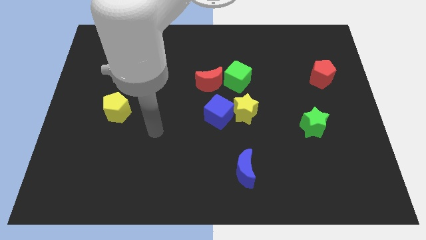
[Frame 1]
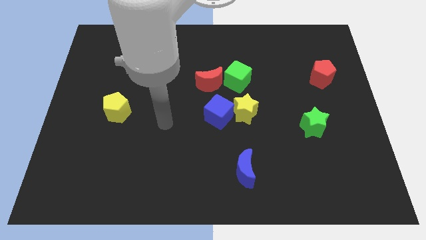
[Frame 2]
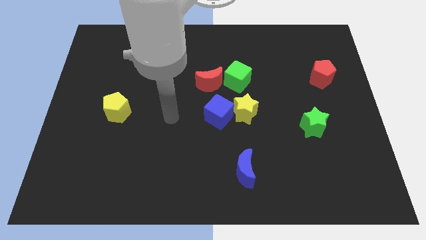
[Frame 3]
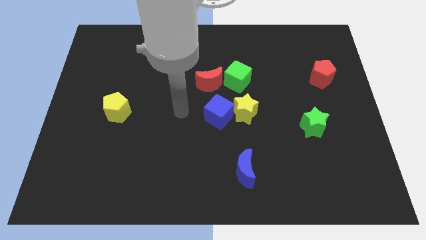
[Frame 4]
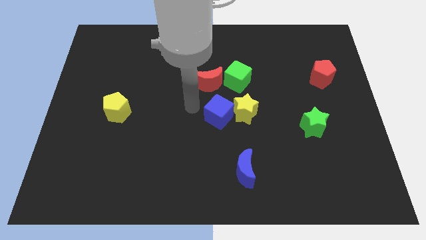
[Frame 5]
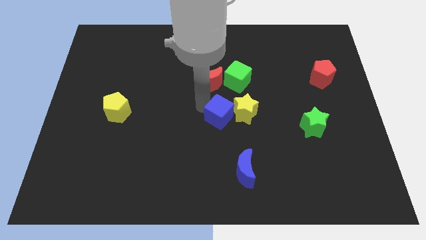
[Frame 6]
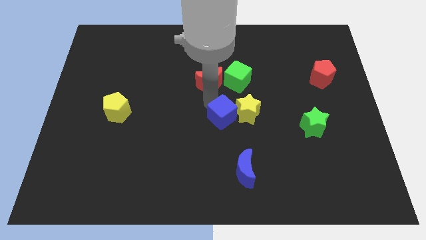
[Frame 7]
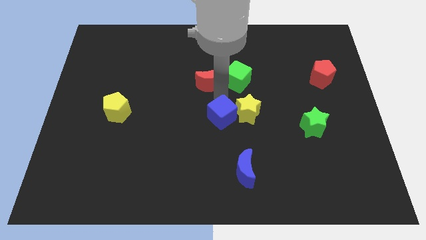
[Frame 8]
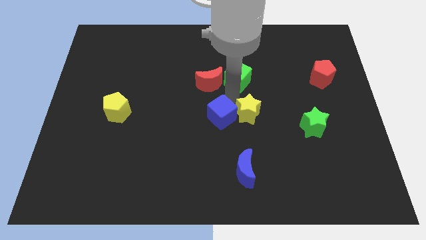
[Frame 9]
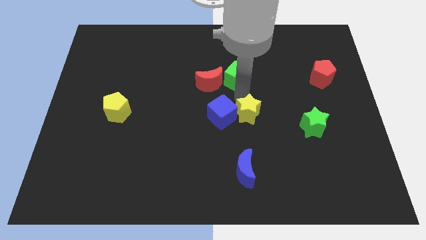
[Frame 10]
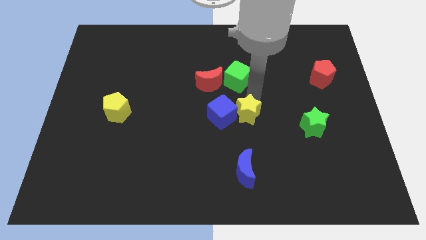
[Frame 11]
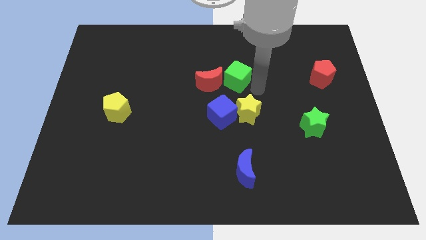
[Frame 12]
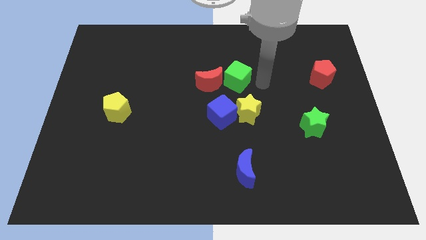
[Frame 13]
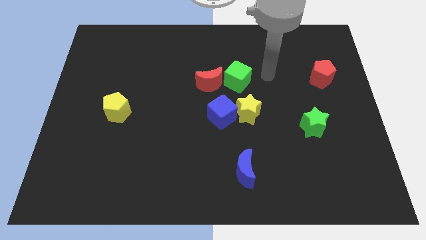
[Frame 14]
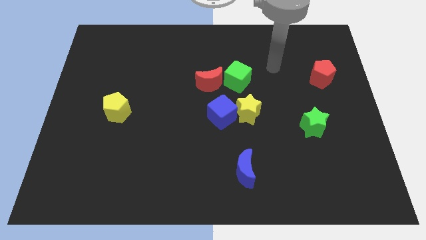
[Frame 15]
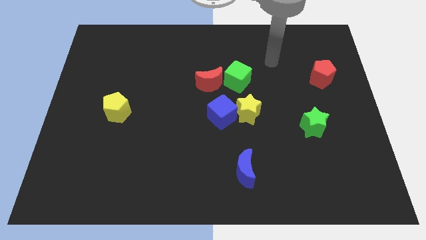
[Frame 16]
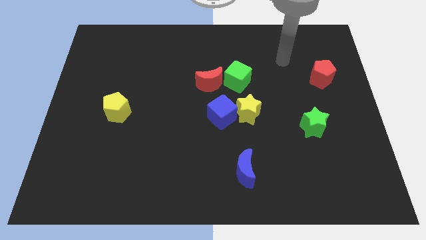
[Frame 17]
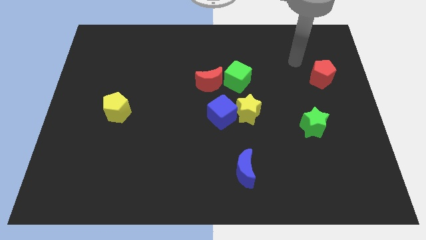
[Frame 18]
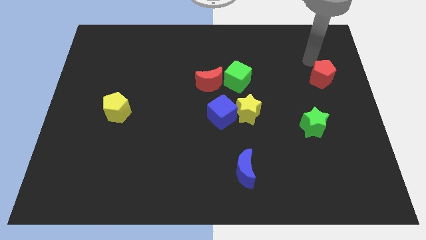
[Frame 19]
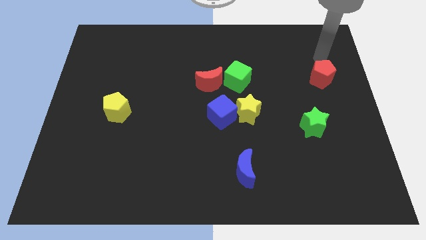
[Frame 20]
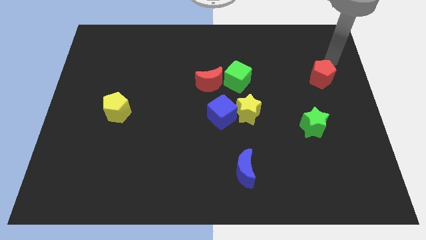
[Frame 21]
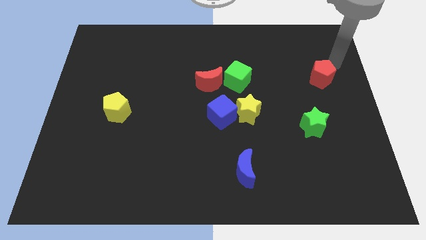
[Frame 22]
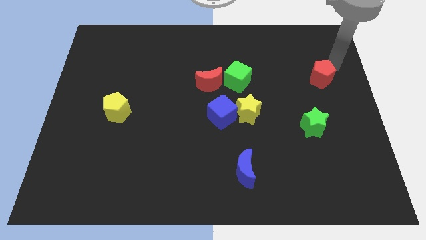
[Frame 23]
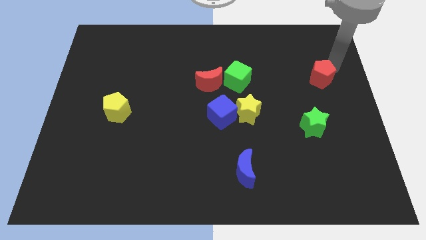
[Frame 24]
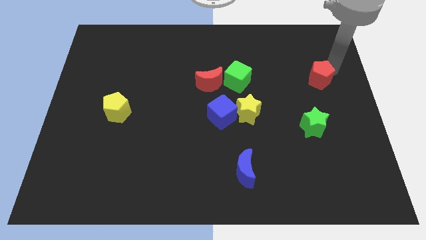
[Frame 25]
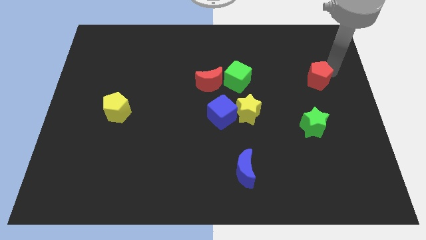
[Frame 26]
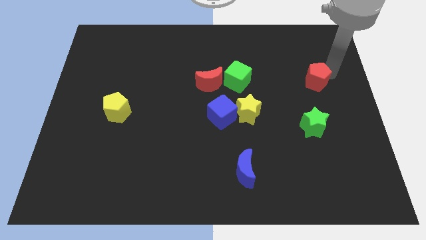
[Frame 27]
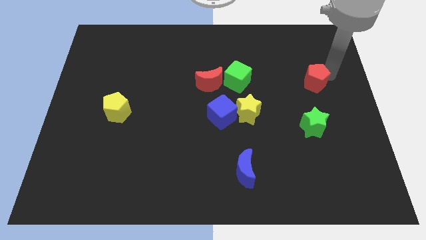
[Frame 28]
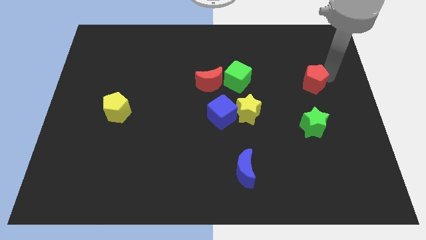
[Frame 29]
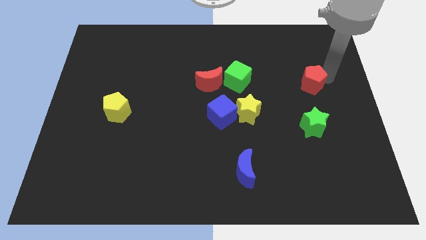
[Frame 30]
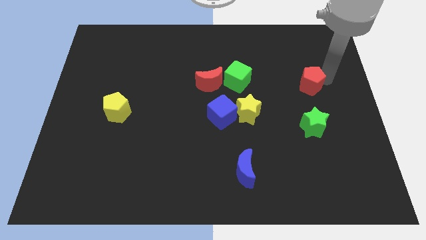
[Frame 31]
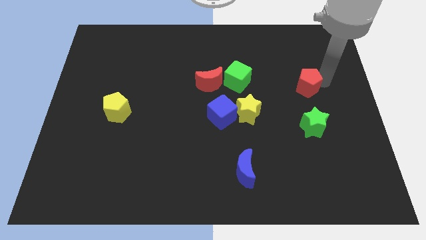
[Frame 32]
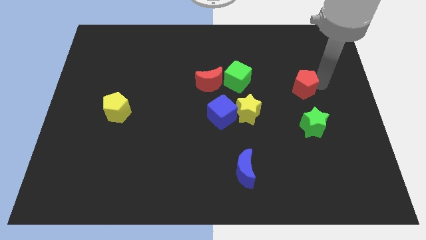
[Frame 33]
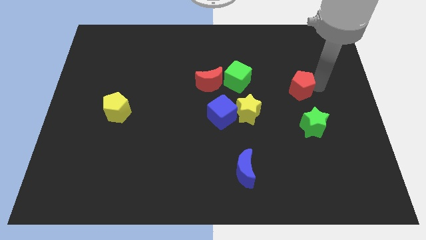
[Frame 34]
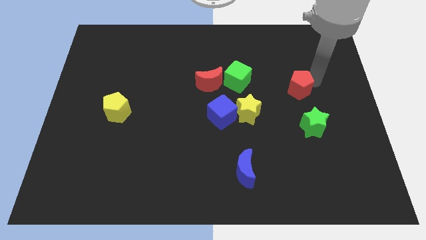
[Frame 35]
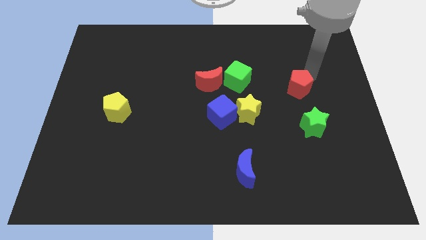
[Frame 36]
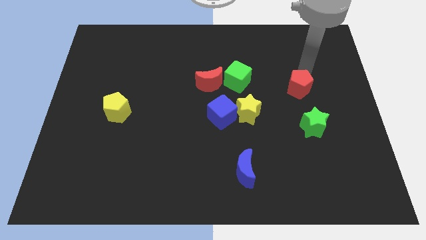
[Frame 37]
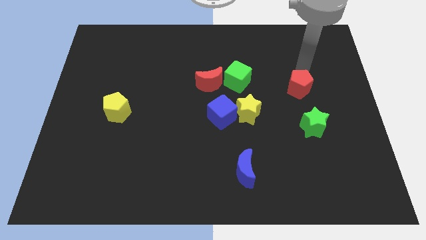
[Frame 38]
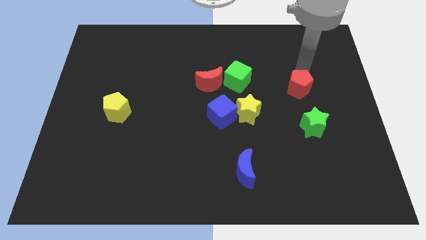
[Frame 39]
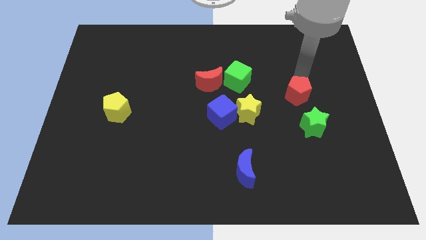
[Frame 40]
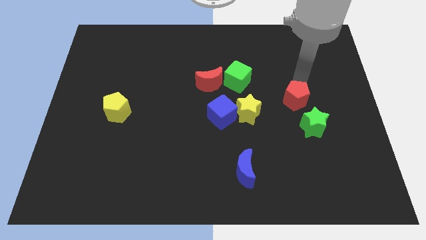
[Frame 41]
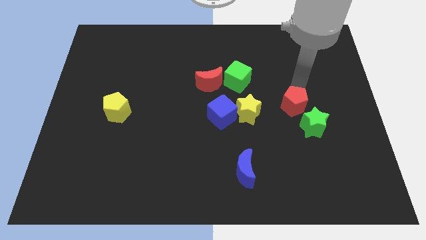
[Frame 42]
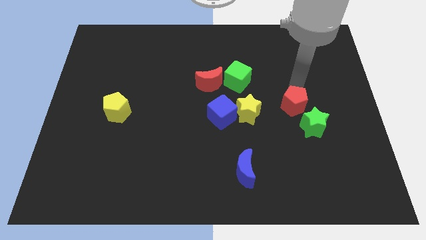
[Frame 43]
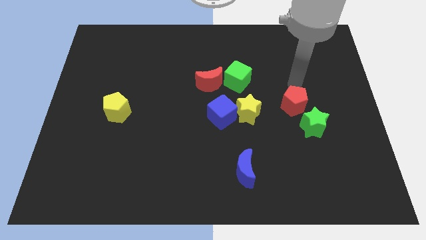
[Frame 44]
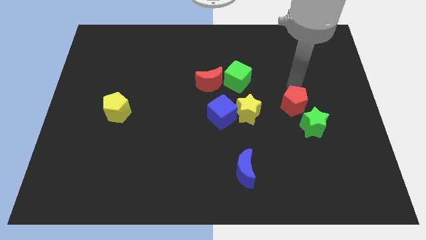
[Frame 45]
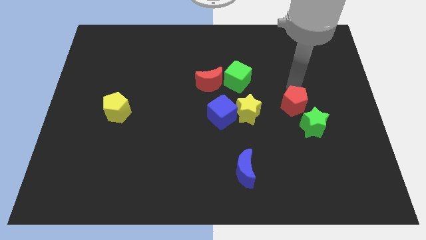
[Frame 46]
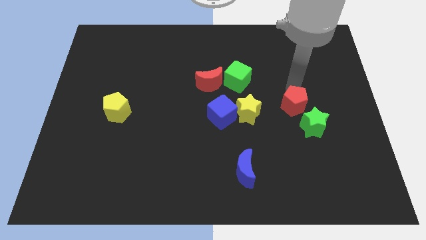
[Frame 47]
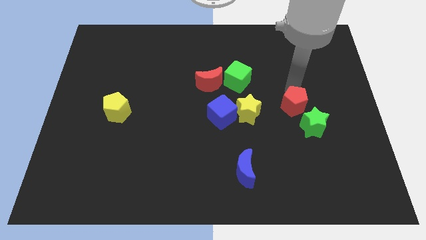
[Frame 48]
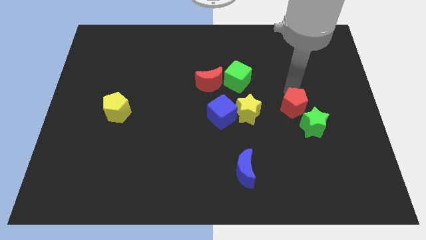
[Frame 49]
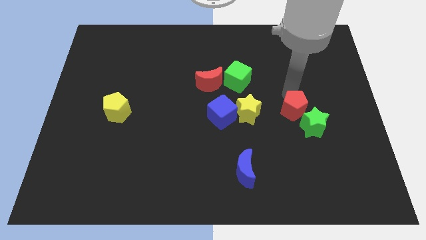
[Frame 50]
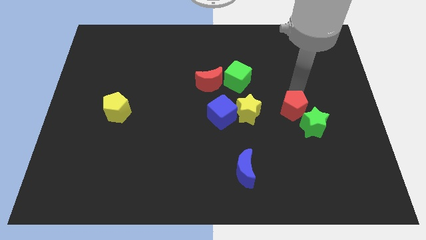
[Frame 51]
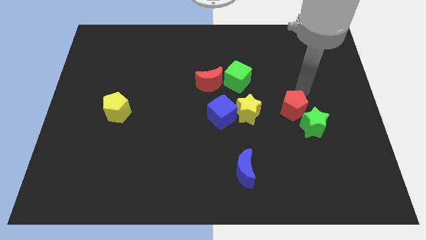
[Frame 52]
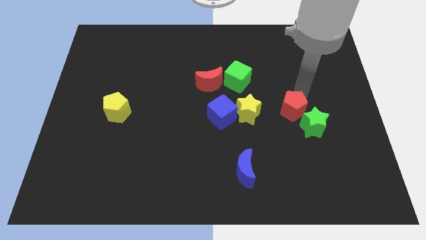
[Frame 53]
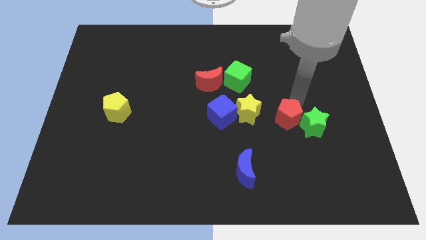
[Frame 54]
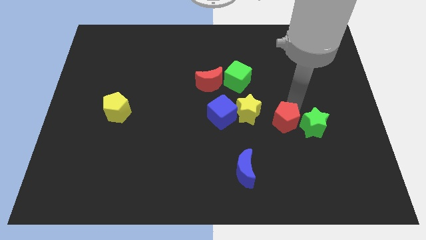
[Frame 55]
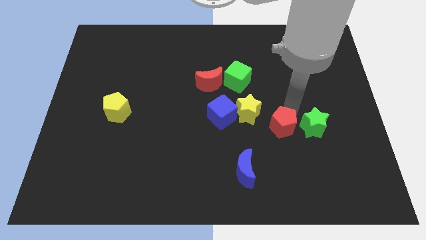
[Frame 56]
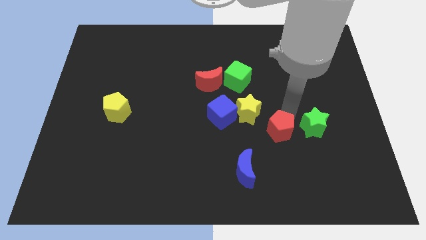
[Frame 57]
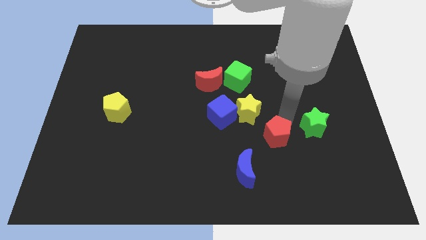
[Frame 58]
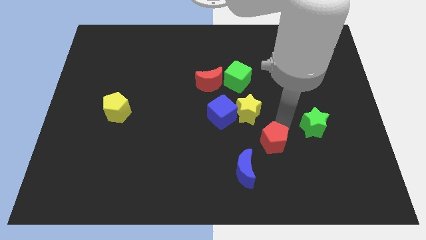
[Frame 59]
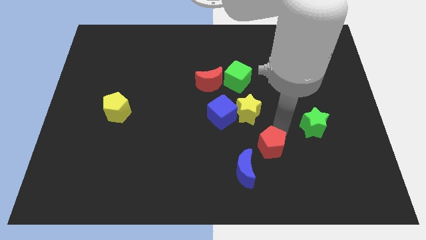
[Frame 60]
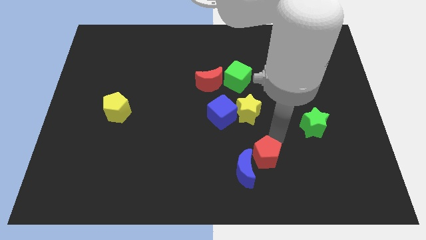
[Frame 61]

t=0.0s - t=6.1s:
put the red pentagon next to the blue moon

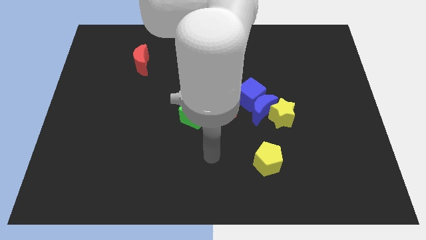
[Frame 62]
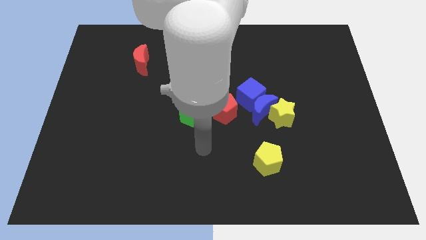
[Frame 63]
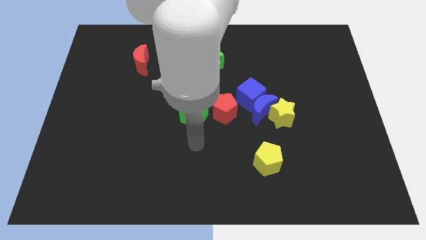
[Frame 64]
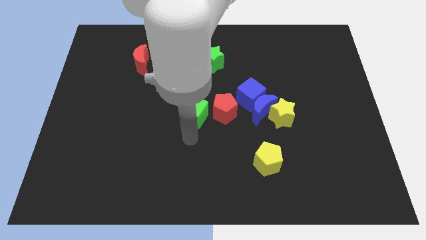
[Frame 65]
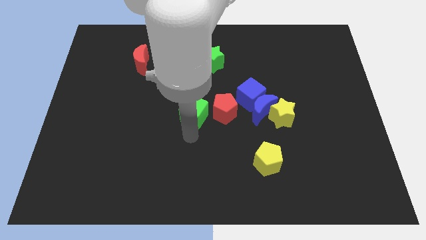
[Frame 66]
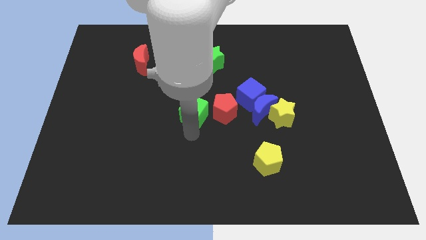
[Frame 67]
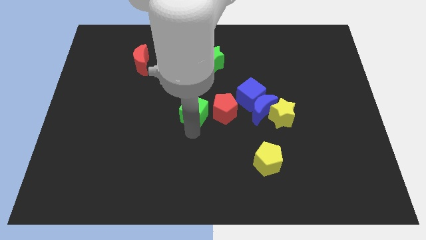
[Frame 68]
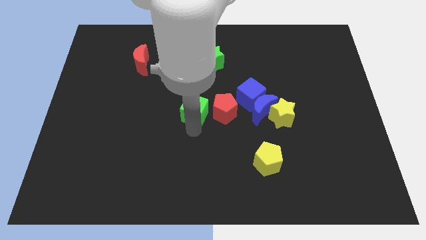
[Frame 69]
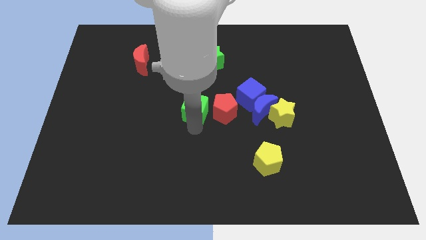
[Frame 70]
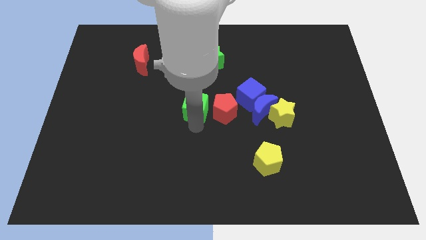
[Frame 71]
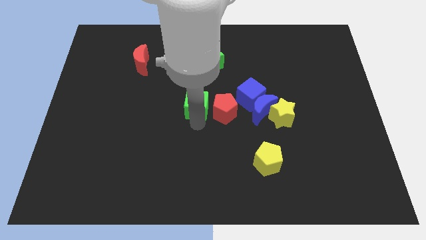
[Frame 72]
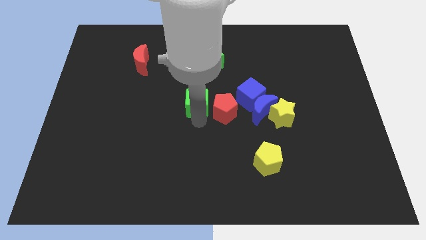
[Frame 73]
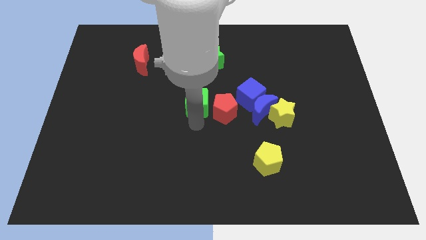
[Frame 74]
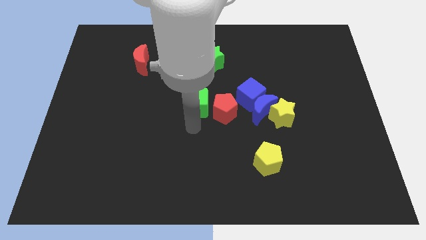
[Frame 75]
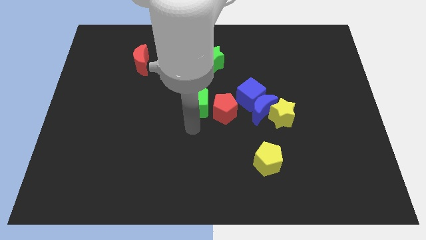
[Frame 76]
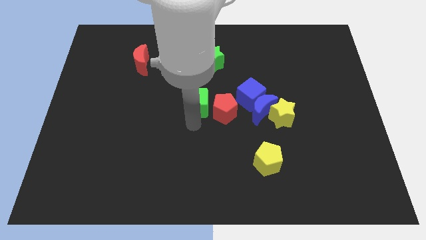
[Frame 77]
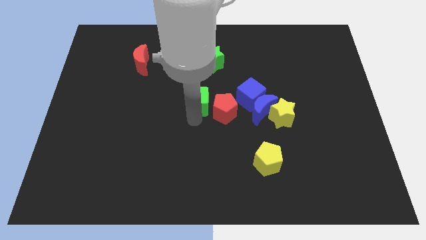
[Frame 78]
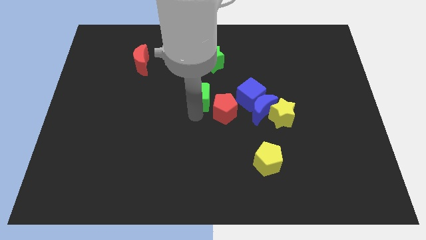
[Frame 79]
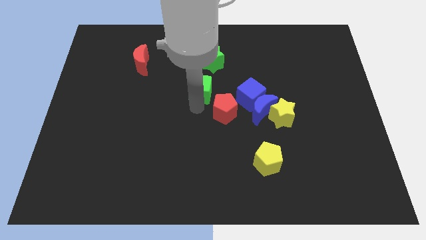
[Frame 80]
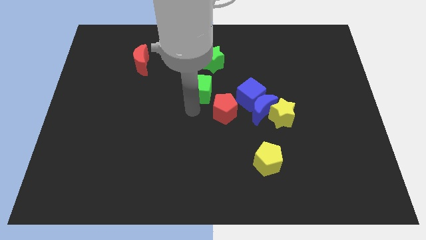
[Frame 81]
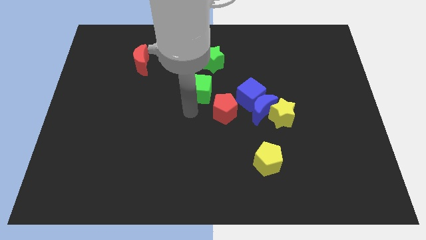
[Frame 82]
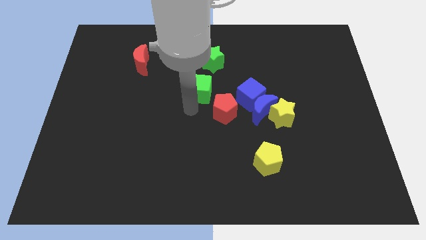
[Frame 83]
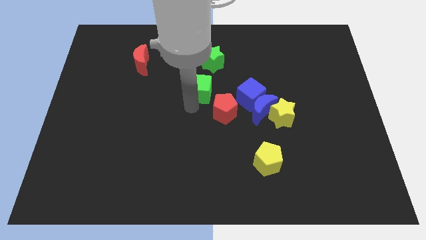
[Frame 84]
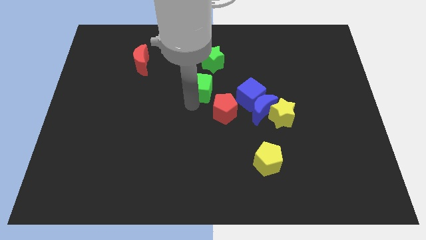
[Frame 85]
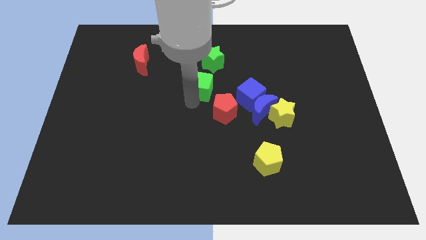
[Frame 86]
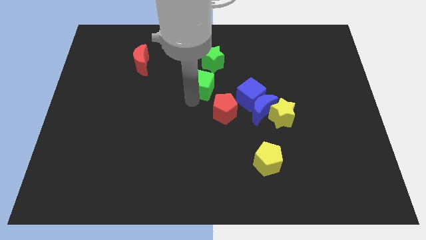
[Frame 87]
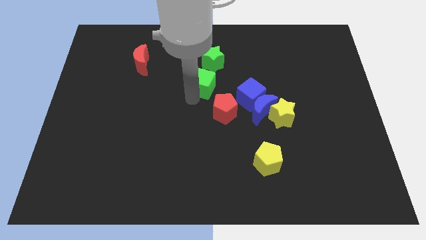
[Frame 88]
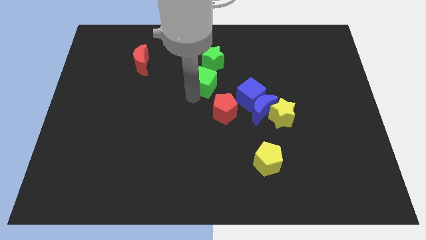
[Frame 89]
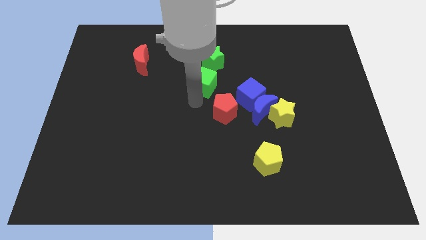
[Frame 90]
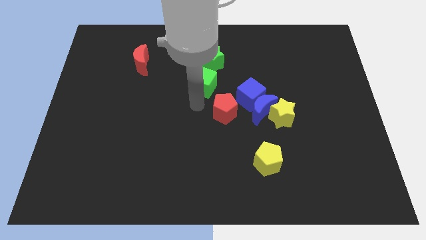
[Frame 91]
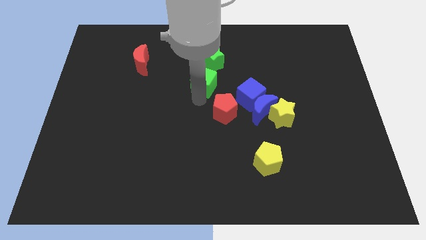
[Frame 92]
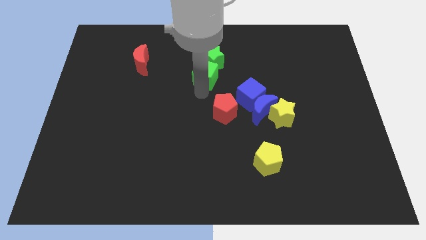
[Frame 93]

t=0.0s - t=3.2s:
slide the green cube towards the green star
